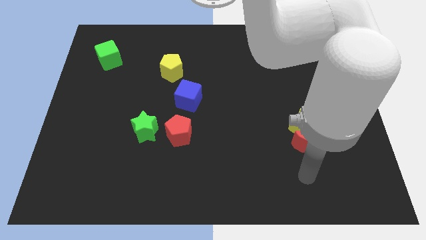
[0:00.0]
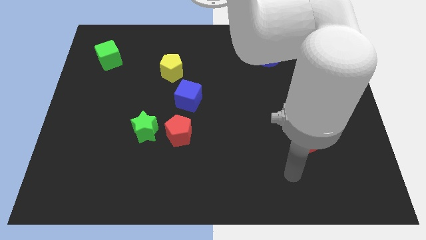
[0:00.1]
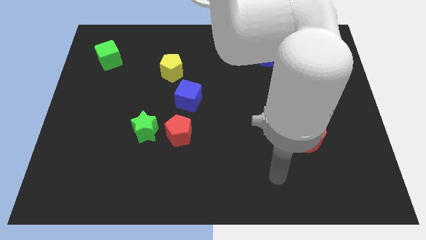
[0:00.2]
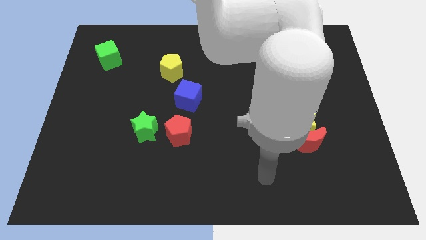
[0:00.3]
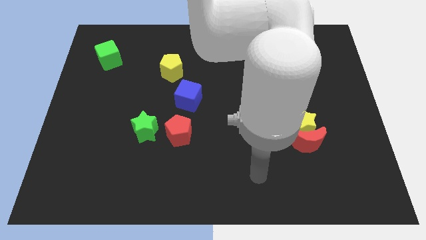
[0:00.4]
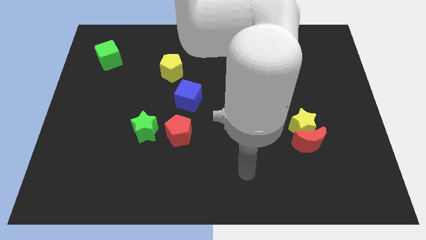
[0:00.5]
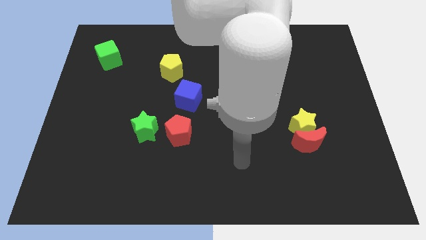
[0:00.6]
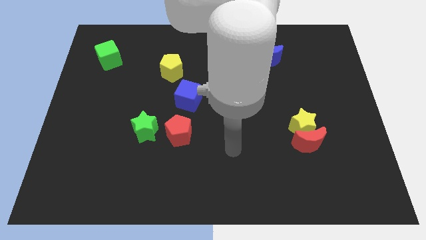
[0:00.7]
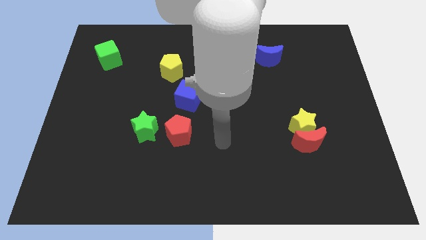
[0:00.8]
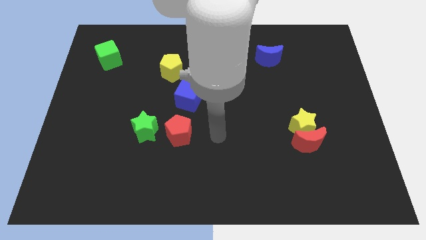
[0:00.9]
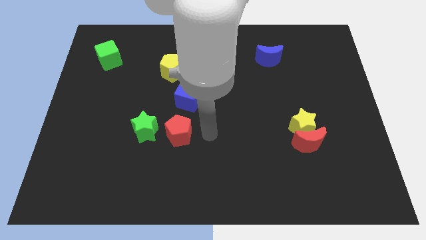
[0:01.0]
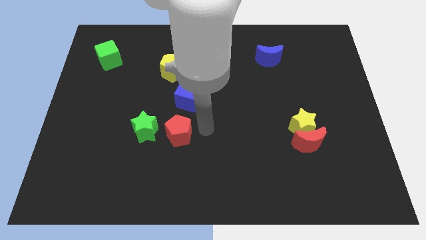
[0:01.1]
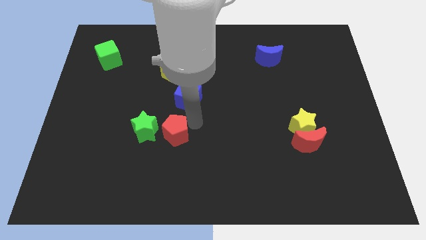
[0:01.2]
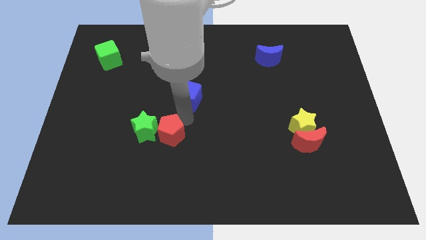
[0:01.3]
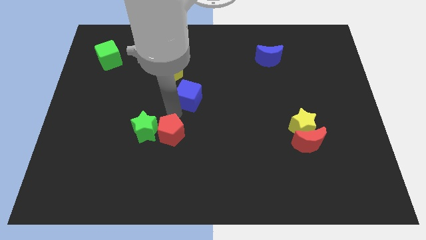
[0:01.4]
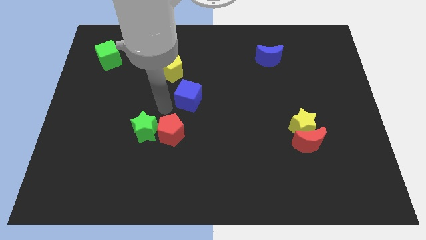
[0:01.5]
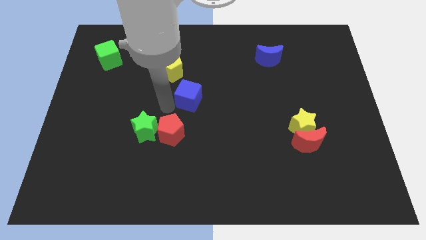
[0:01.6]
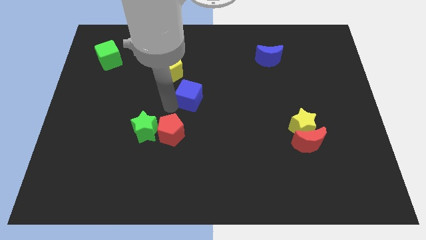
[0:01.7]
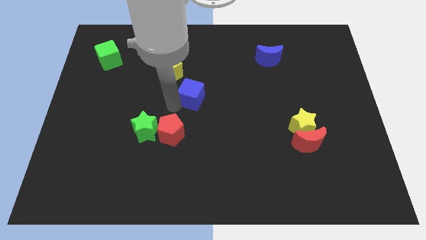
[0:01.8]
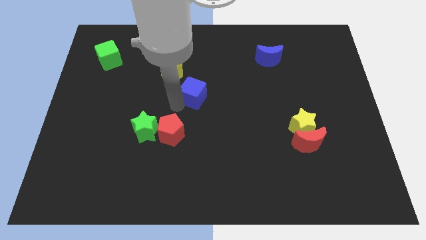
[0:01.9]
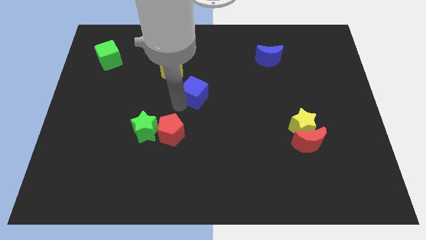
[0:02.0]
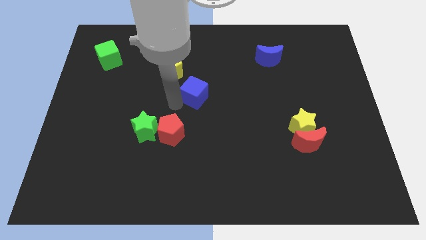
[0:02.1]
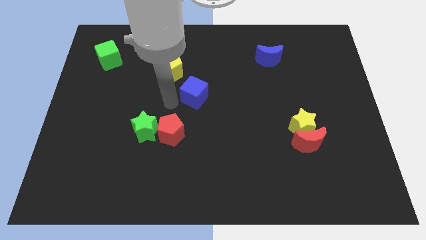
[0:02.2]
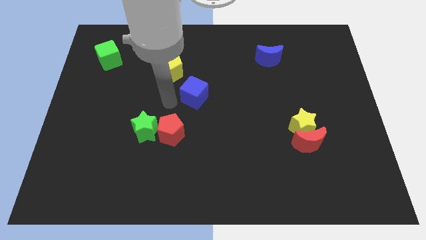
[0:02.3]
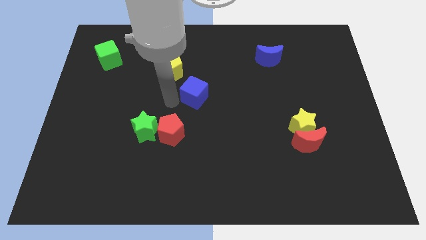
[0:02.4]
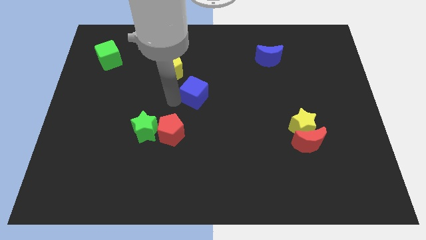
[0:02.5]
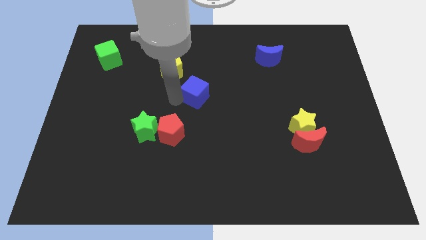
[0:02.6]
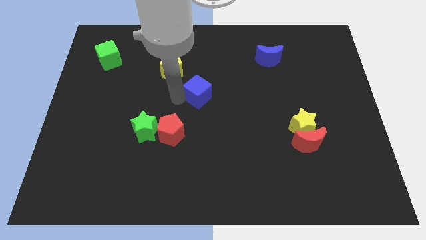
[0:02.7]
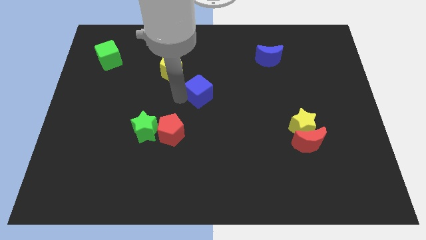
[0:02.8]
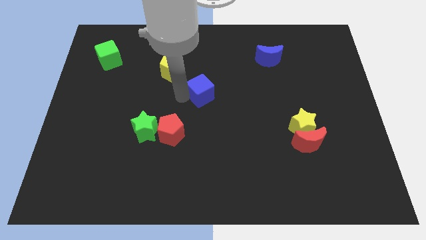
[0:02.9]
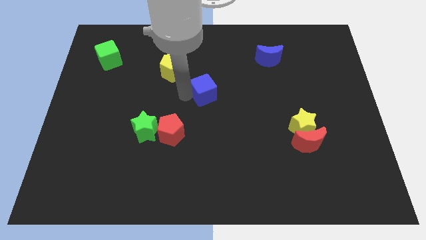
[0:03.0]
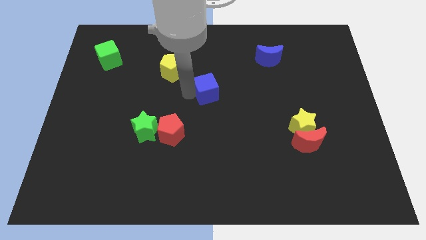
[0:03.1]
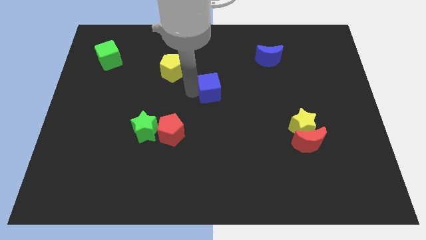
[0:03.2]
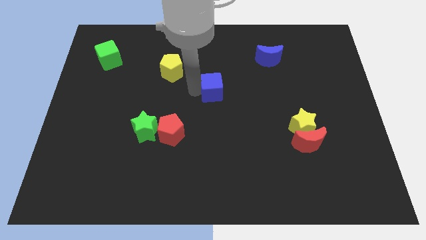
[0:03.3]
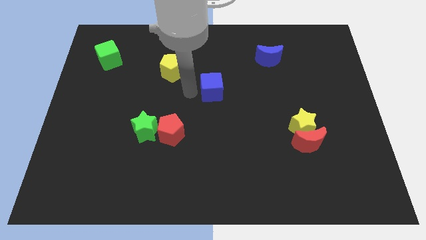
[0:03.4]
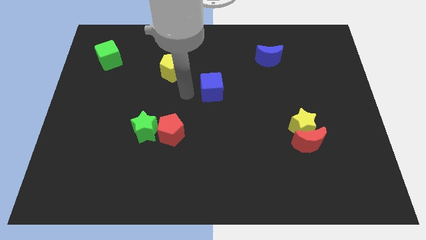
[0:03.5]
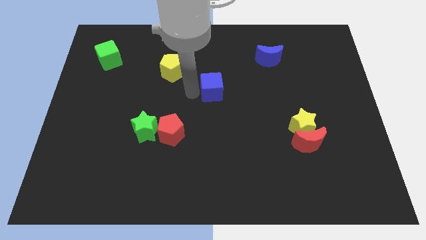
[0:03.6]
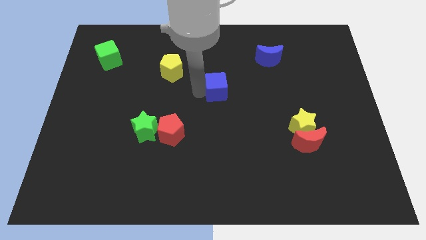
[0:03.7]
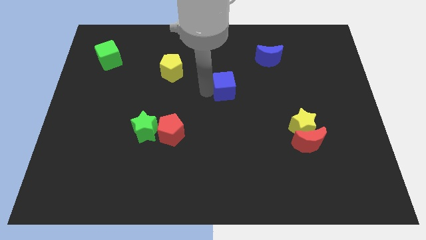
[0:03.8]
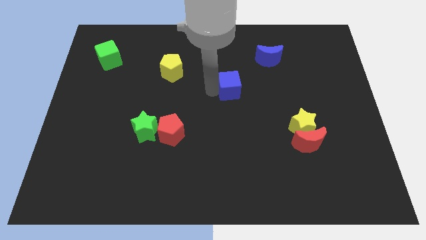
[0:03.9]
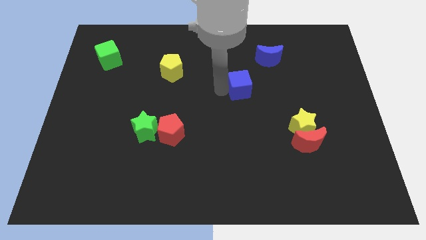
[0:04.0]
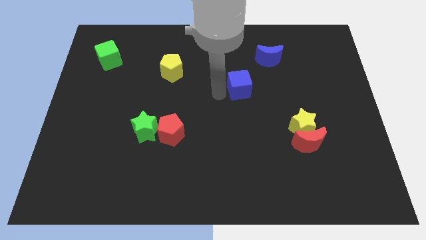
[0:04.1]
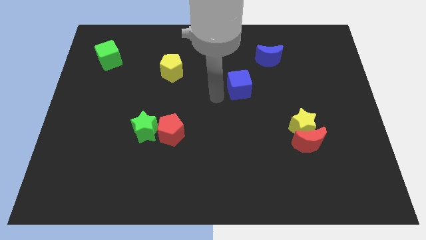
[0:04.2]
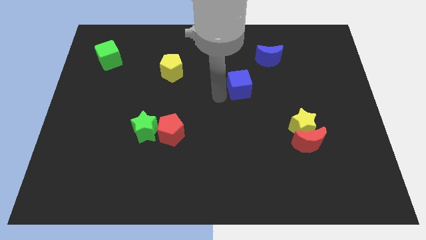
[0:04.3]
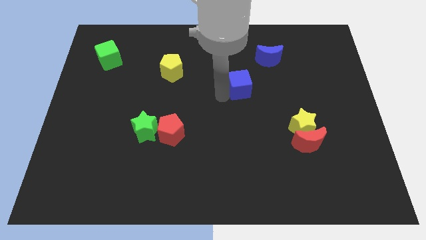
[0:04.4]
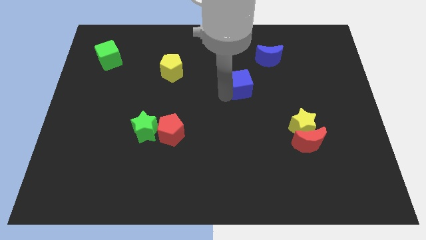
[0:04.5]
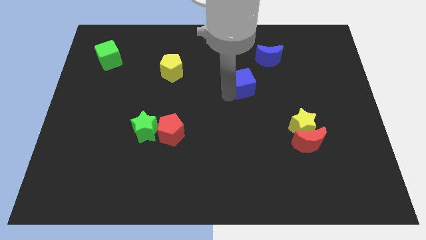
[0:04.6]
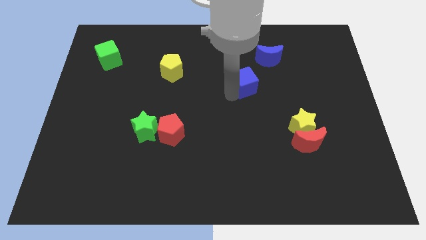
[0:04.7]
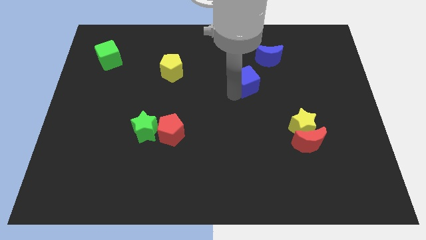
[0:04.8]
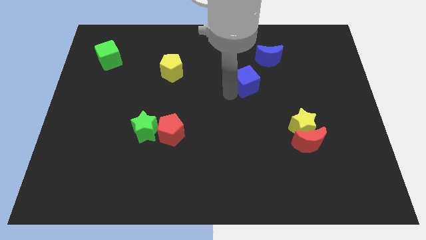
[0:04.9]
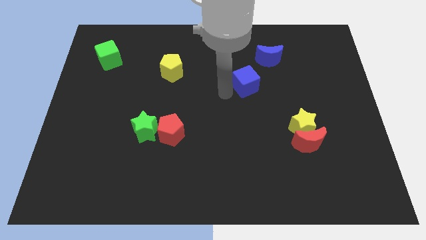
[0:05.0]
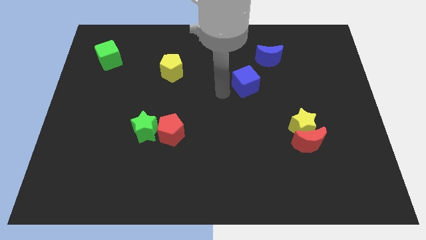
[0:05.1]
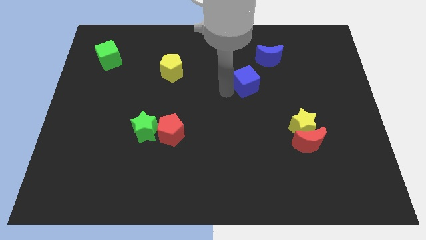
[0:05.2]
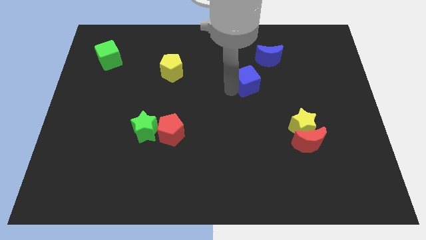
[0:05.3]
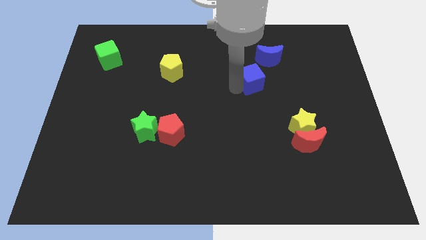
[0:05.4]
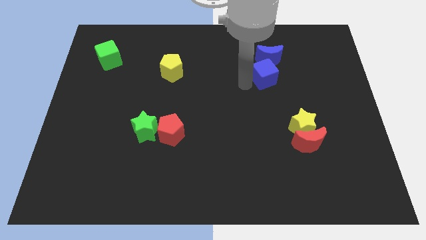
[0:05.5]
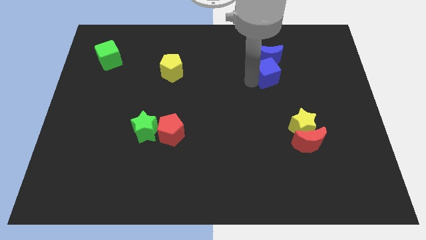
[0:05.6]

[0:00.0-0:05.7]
move the blue cube diagonally down and to the right of the blue moon

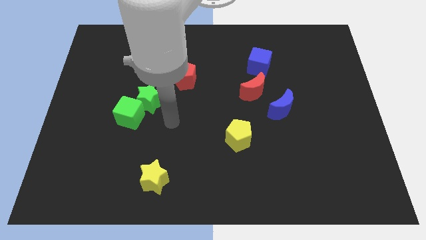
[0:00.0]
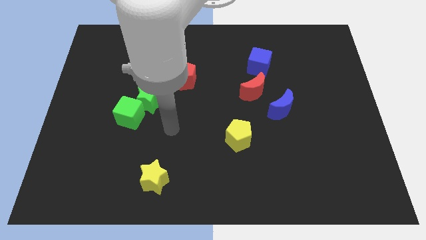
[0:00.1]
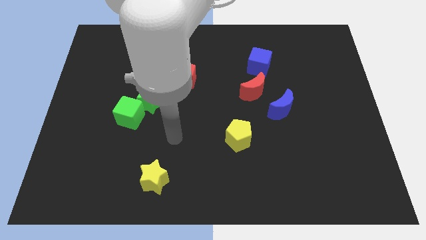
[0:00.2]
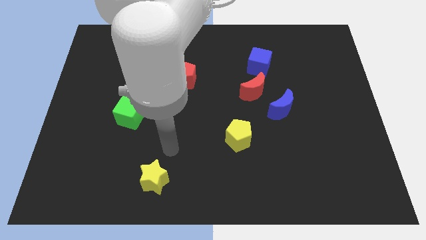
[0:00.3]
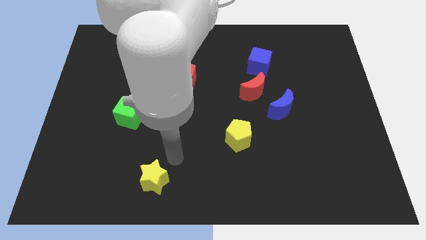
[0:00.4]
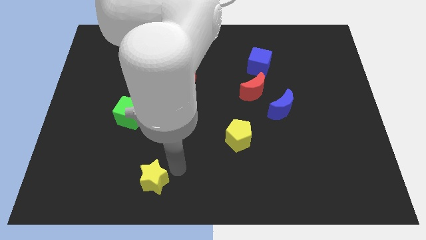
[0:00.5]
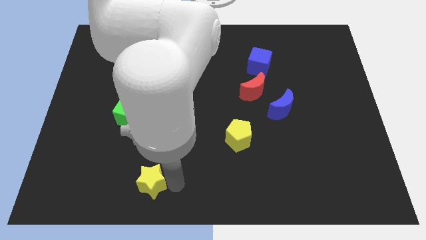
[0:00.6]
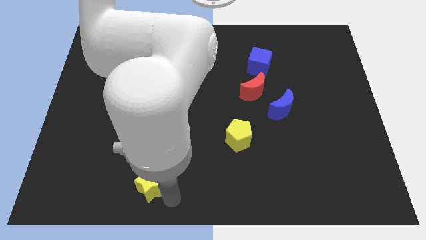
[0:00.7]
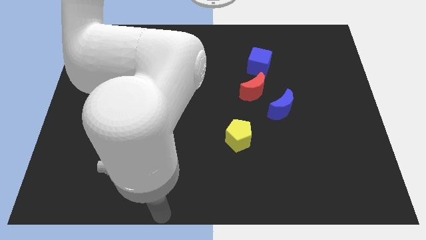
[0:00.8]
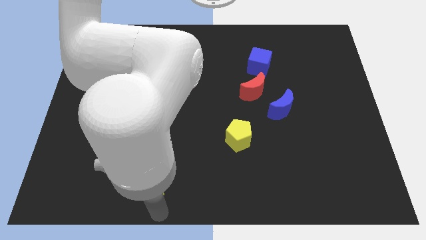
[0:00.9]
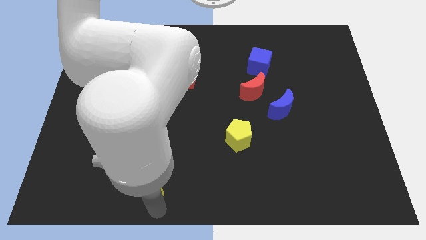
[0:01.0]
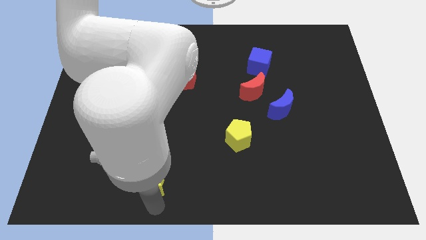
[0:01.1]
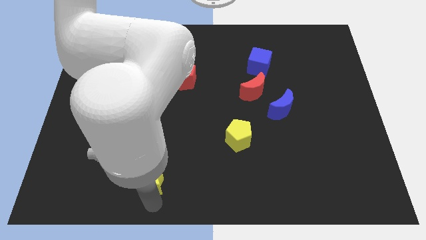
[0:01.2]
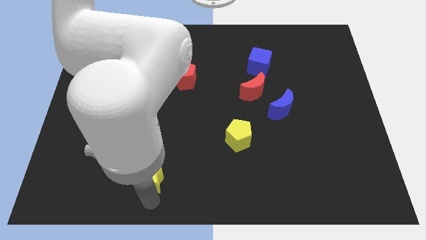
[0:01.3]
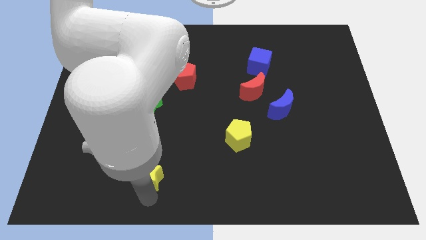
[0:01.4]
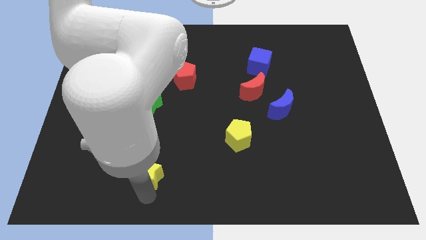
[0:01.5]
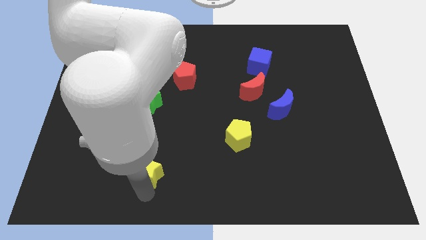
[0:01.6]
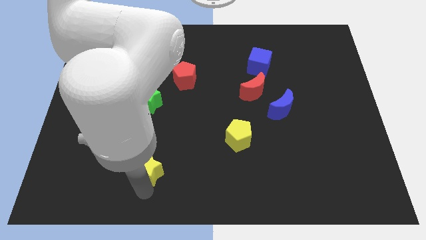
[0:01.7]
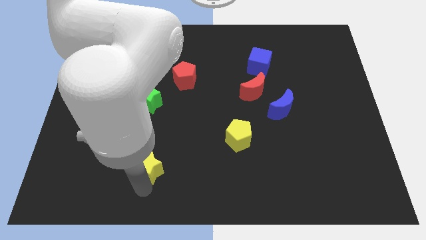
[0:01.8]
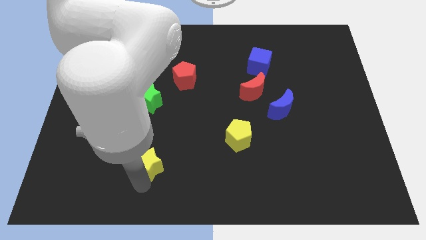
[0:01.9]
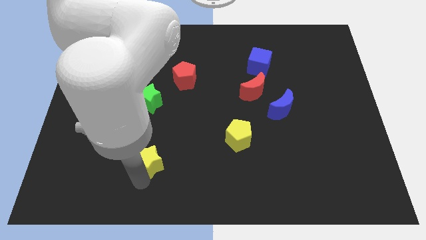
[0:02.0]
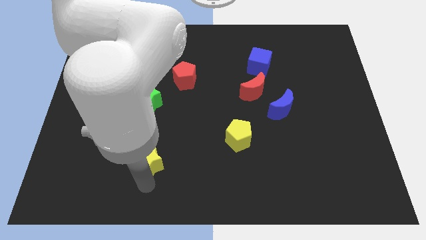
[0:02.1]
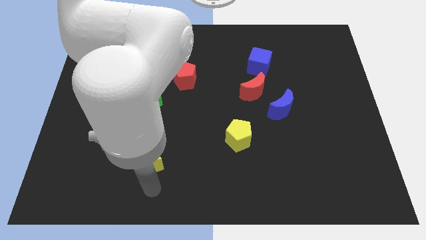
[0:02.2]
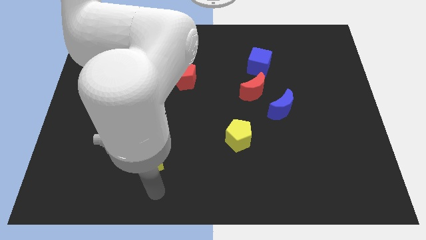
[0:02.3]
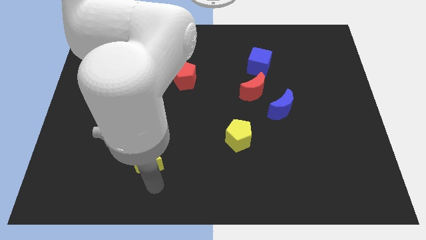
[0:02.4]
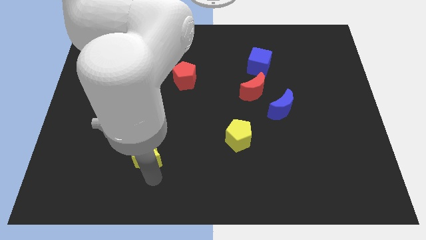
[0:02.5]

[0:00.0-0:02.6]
move the yellow star below the green star
